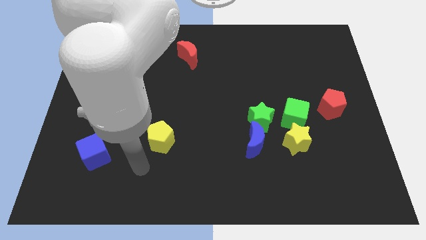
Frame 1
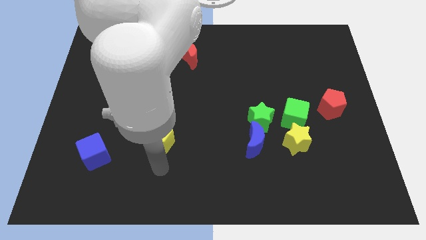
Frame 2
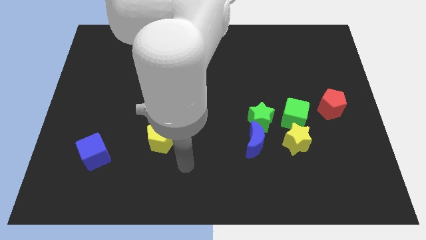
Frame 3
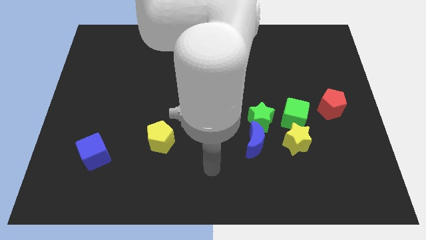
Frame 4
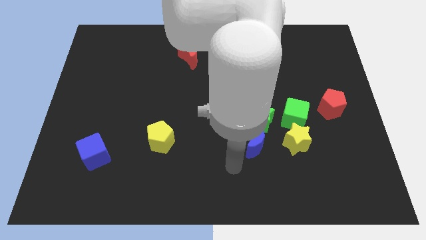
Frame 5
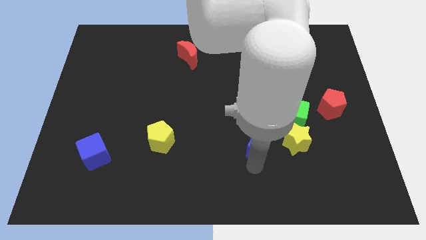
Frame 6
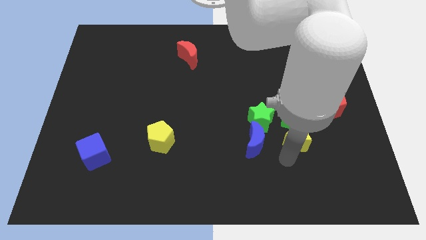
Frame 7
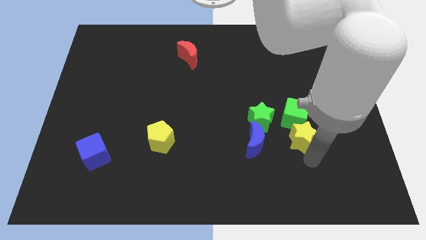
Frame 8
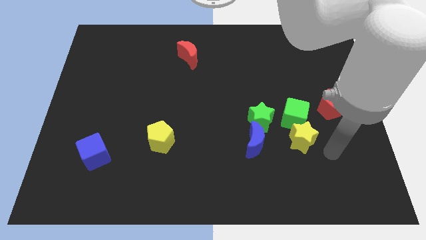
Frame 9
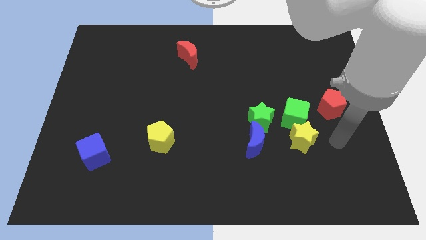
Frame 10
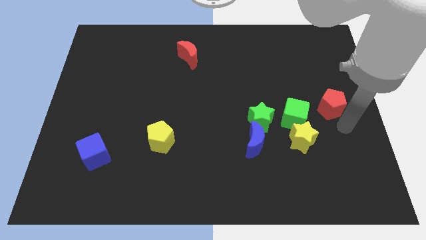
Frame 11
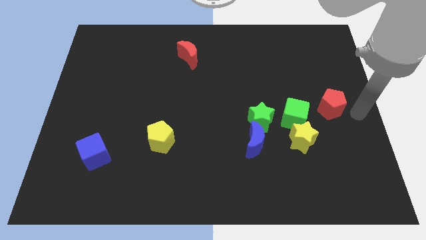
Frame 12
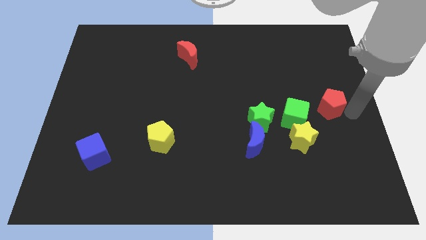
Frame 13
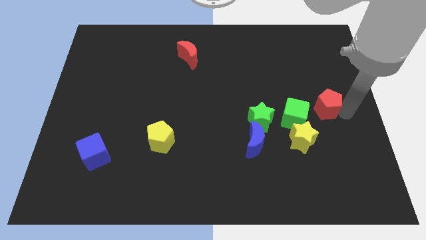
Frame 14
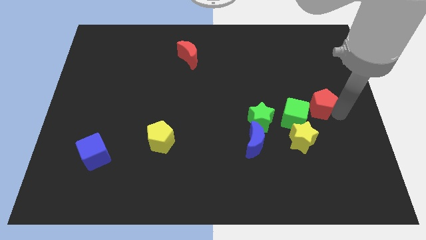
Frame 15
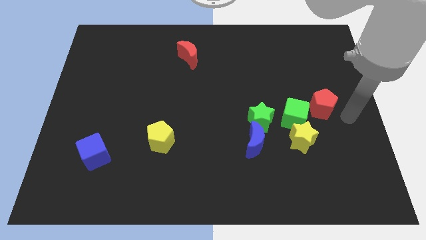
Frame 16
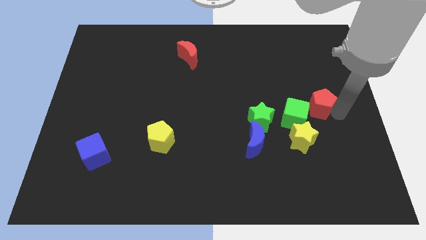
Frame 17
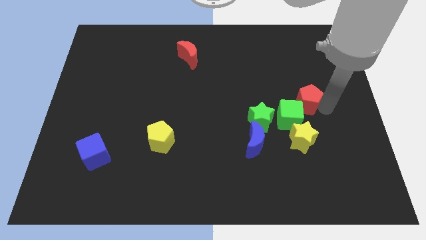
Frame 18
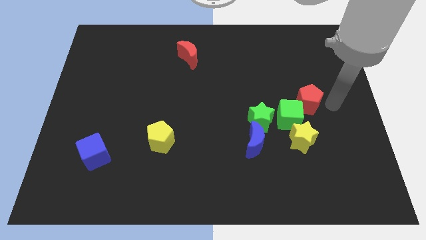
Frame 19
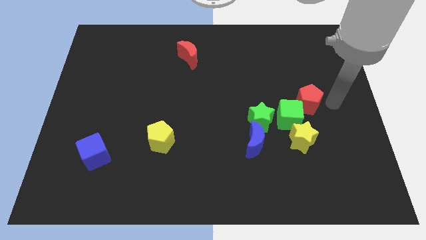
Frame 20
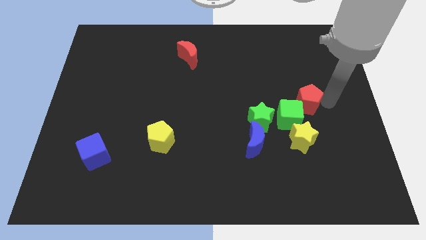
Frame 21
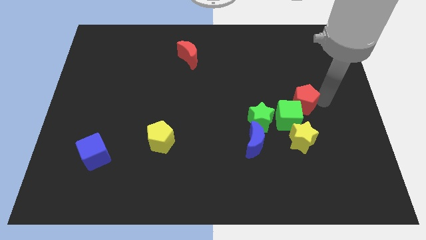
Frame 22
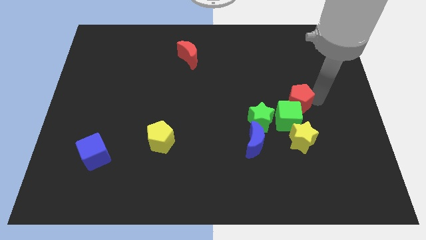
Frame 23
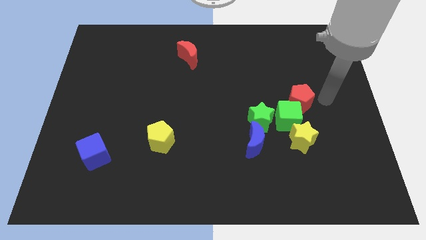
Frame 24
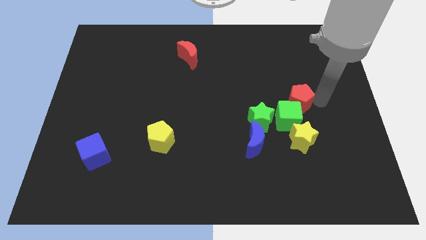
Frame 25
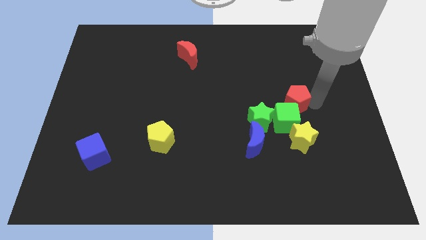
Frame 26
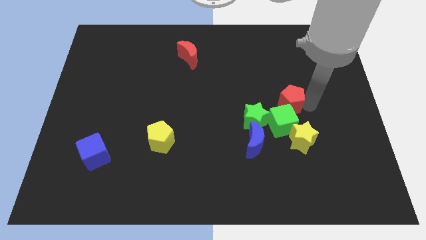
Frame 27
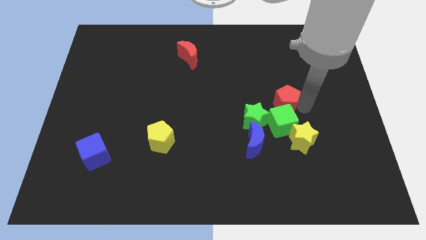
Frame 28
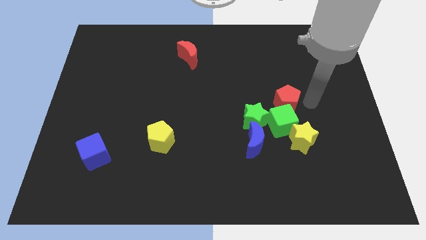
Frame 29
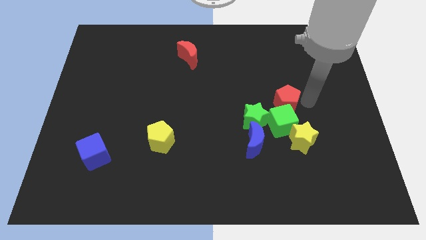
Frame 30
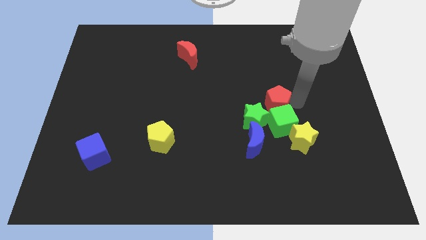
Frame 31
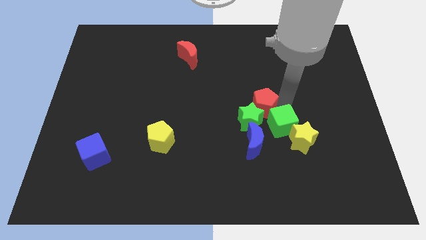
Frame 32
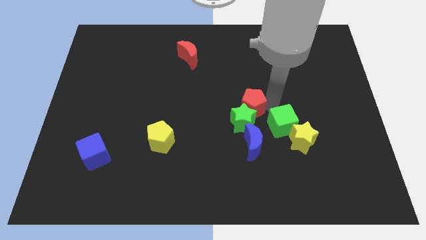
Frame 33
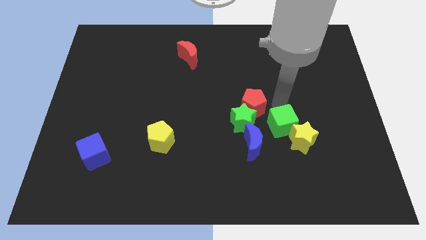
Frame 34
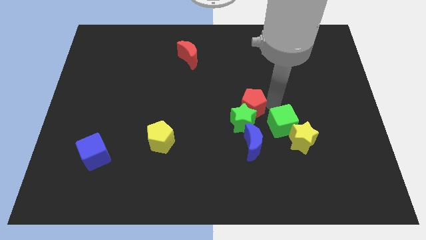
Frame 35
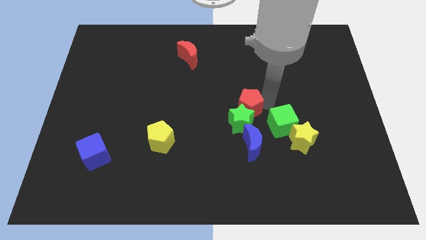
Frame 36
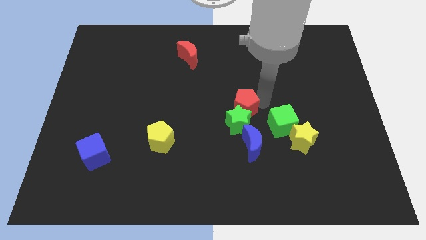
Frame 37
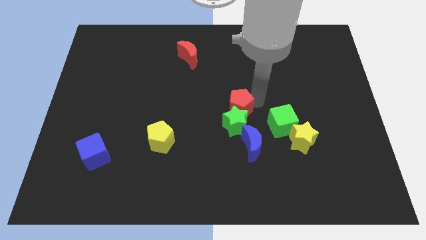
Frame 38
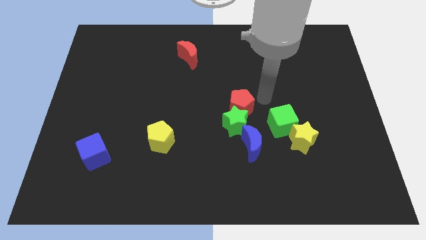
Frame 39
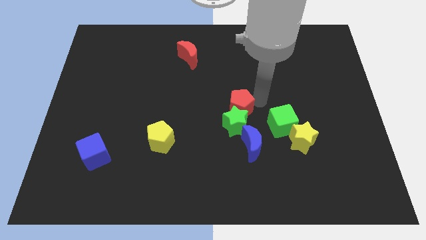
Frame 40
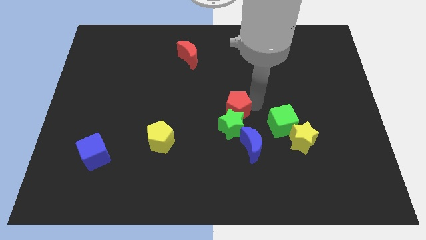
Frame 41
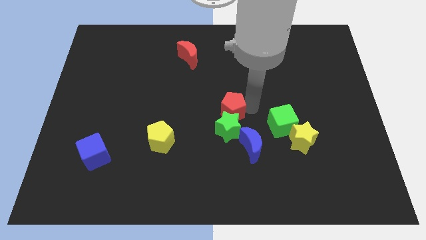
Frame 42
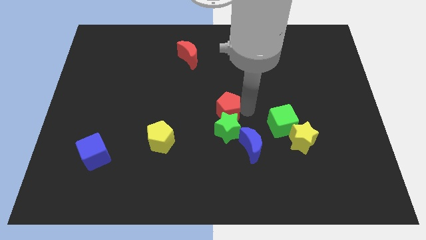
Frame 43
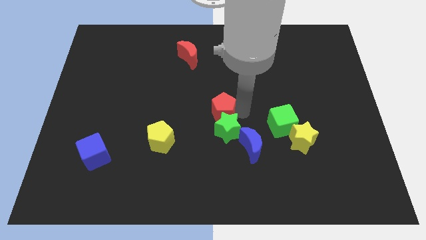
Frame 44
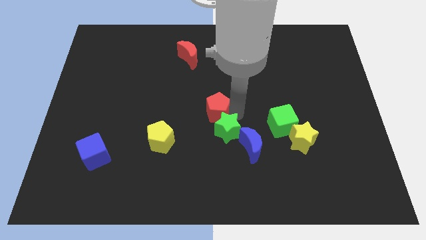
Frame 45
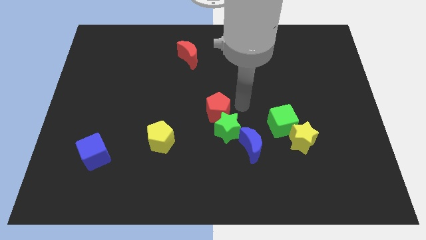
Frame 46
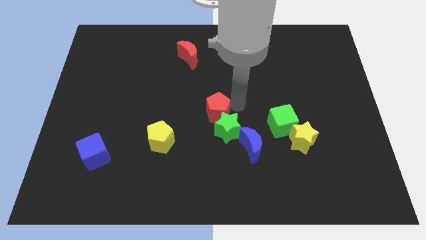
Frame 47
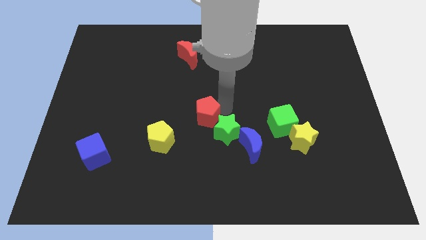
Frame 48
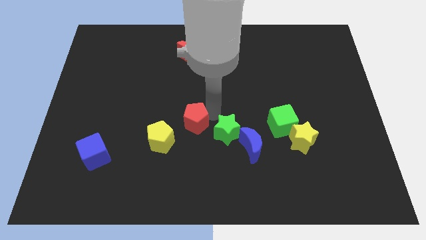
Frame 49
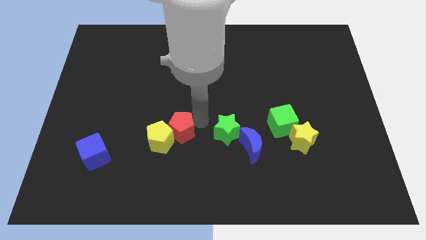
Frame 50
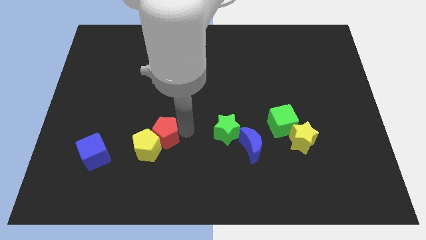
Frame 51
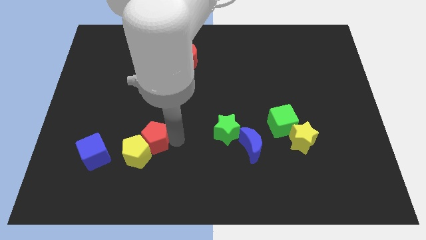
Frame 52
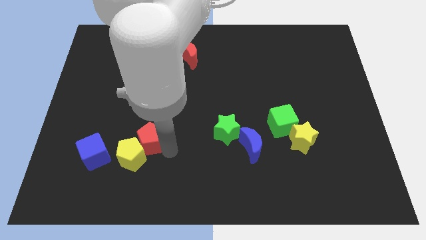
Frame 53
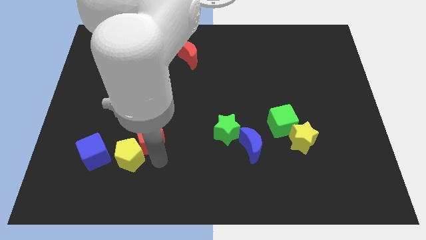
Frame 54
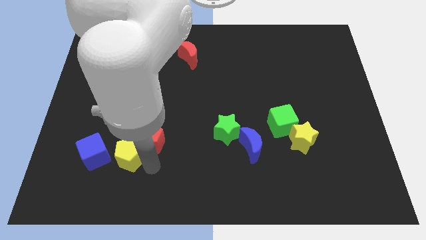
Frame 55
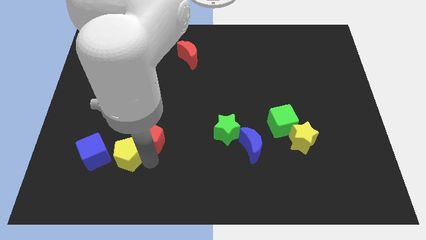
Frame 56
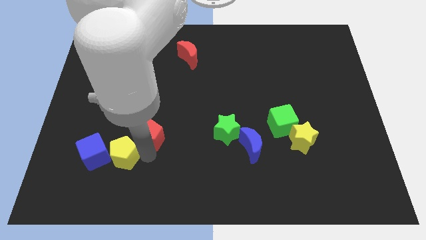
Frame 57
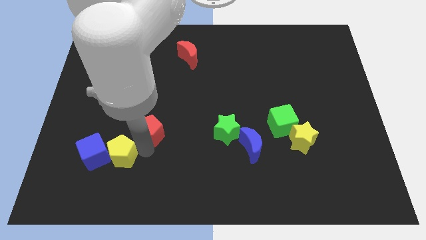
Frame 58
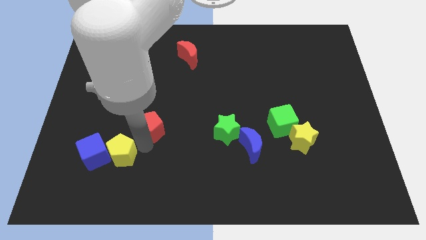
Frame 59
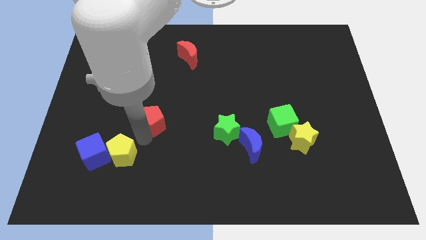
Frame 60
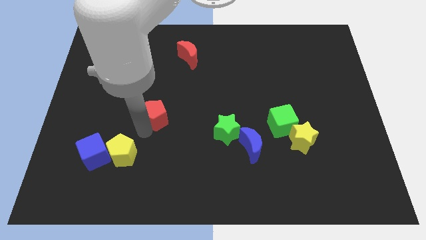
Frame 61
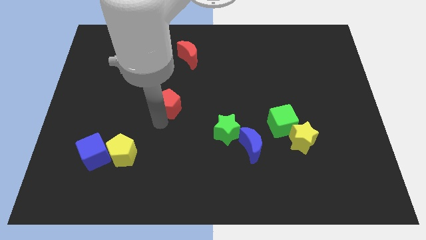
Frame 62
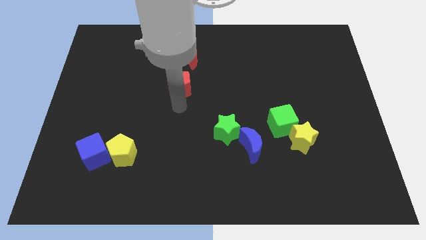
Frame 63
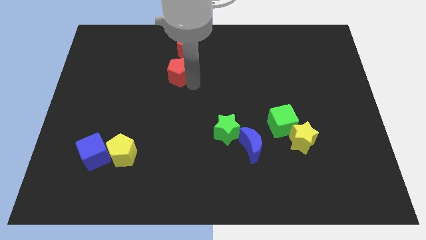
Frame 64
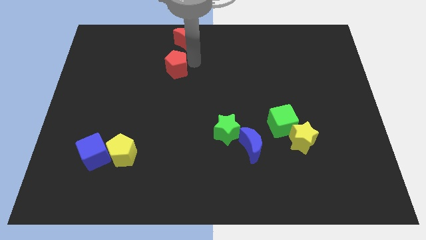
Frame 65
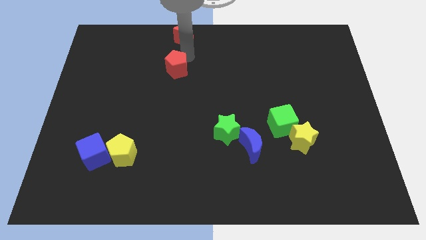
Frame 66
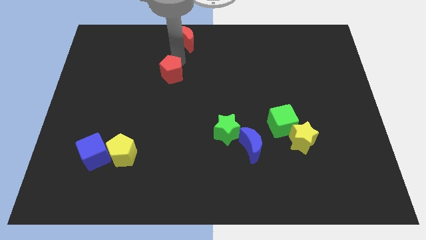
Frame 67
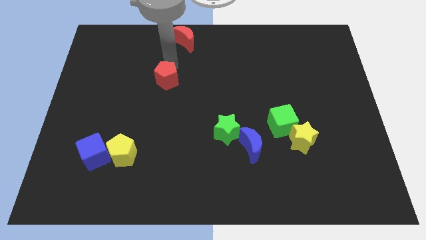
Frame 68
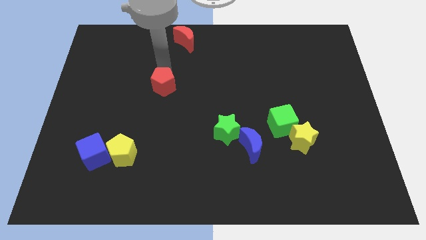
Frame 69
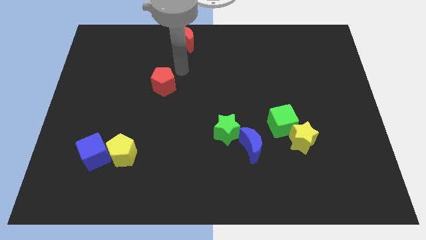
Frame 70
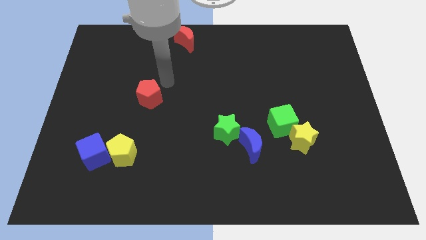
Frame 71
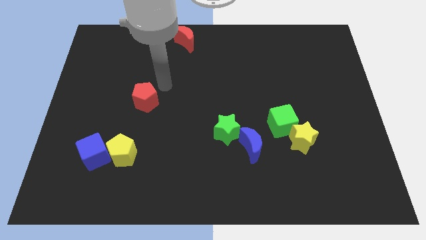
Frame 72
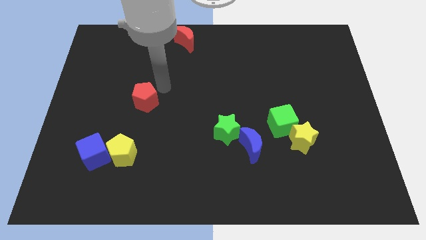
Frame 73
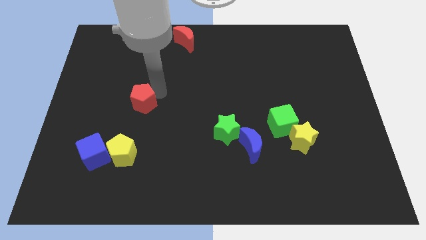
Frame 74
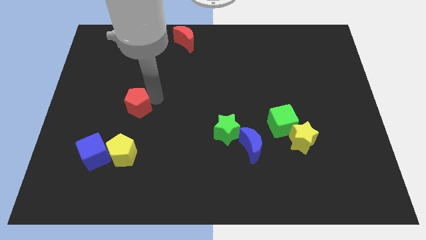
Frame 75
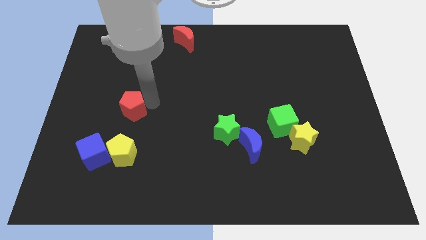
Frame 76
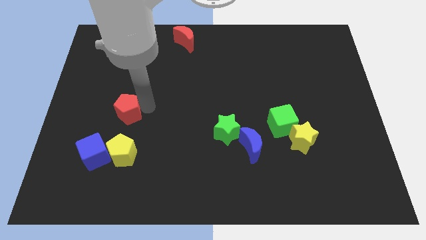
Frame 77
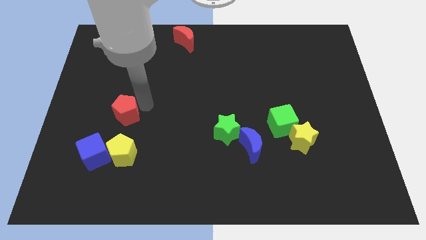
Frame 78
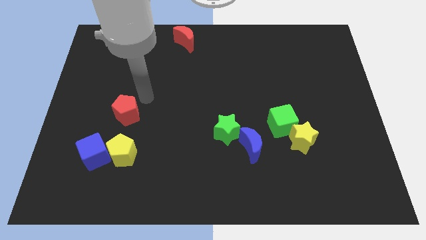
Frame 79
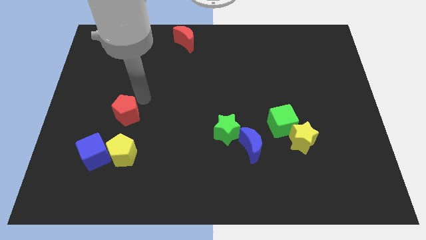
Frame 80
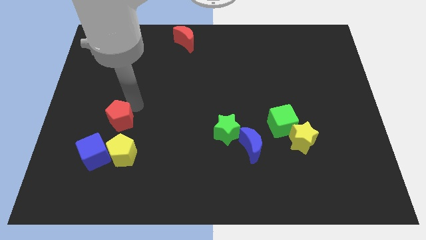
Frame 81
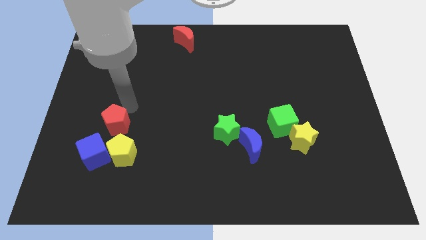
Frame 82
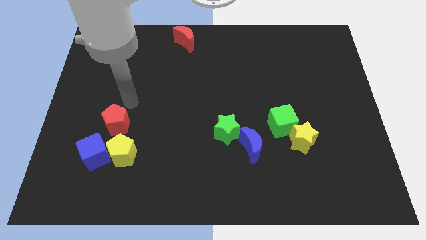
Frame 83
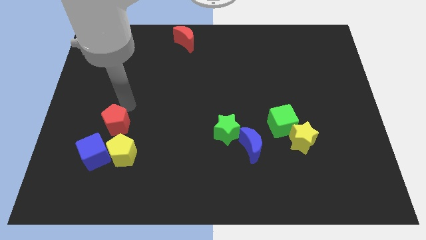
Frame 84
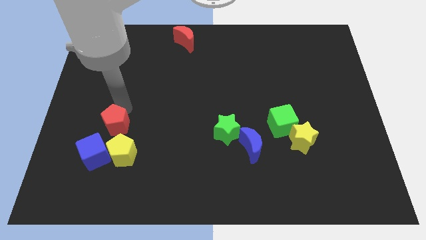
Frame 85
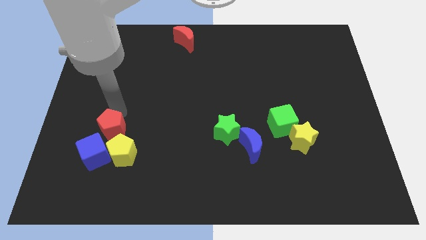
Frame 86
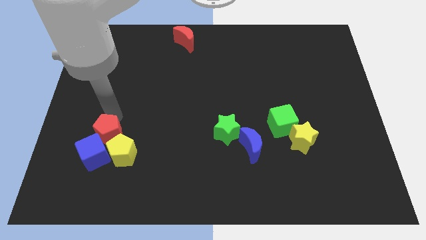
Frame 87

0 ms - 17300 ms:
slide the red pentagon next to the blue cube
